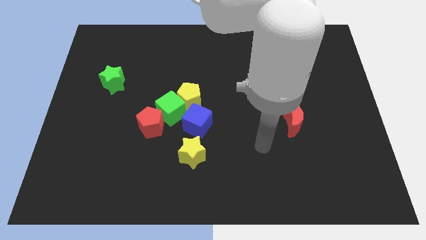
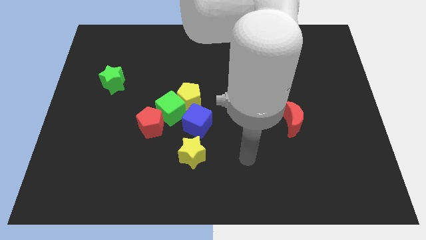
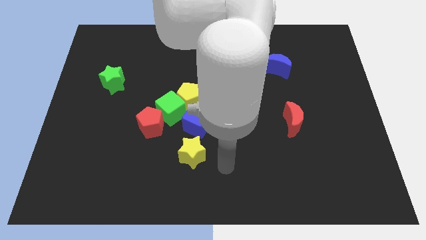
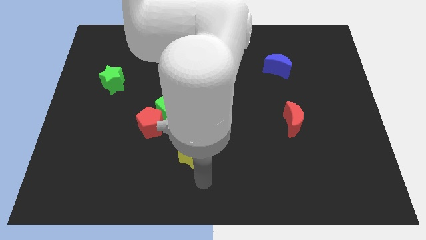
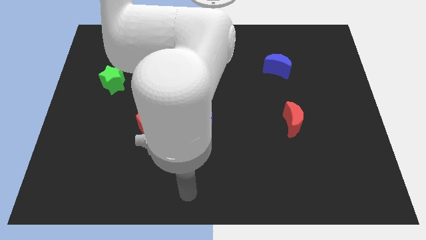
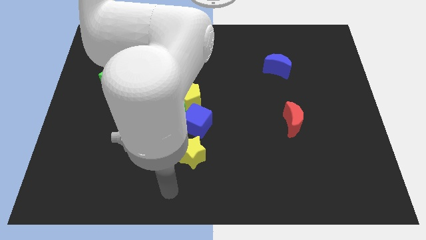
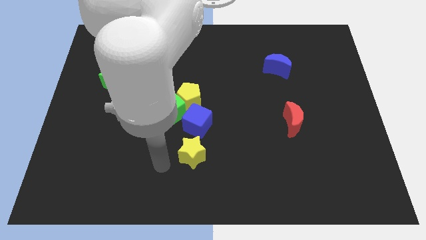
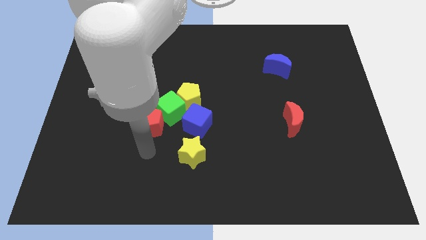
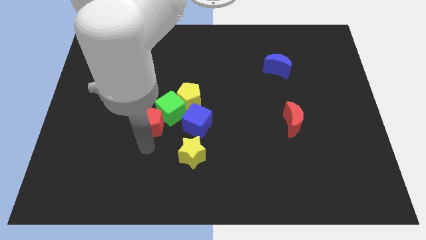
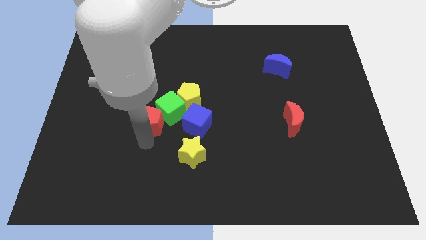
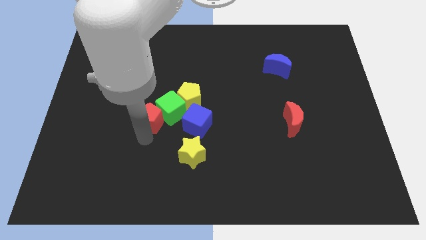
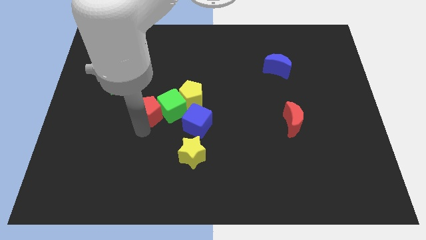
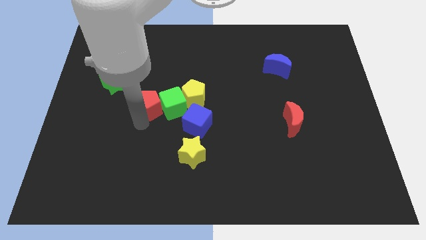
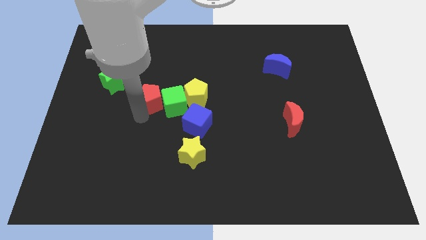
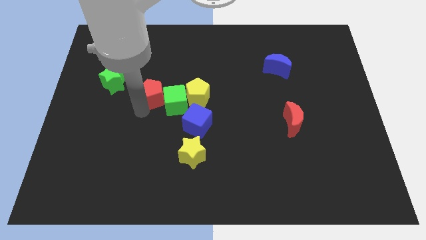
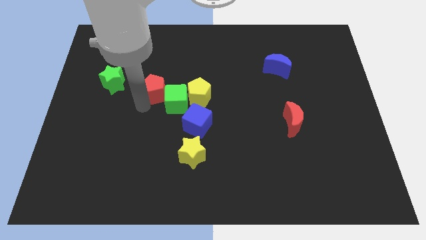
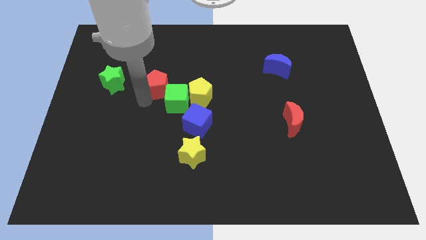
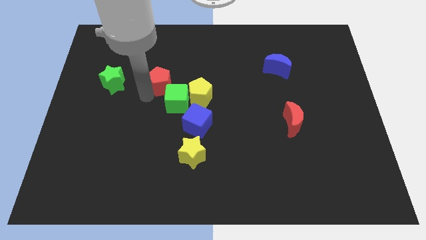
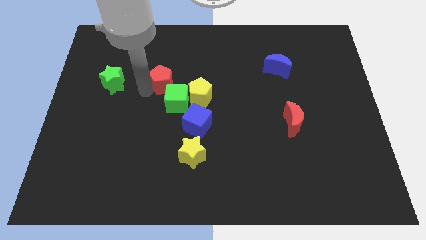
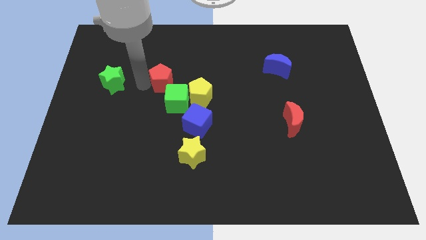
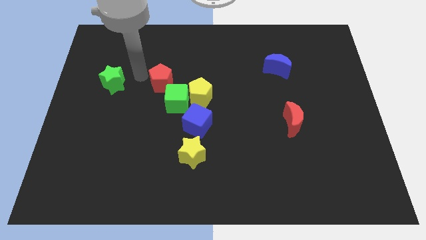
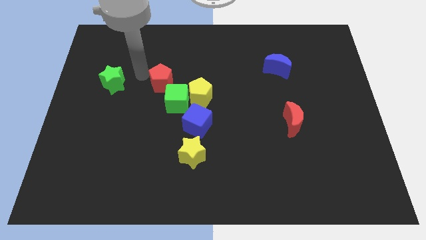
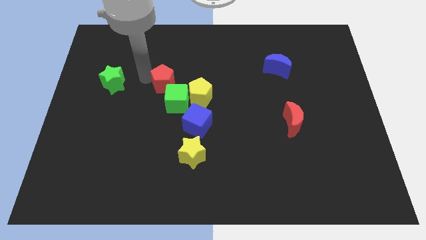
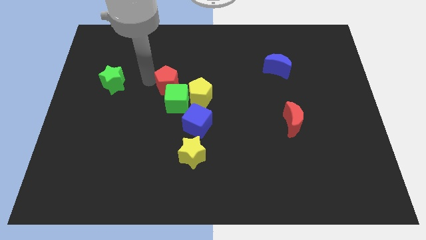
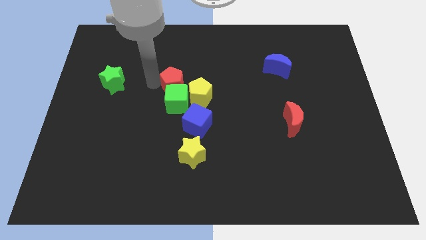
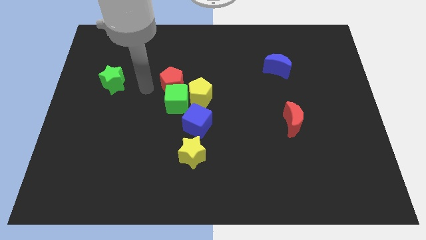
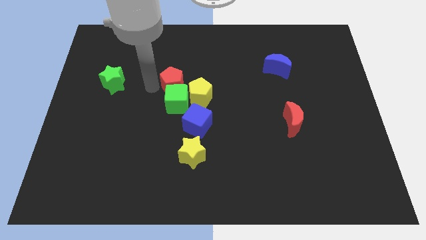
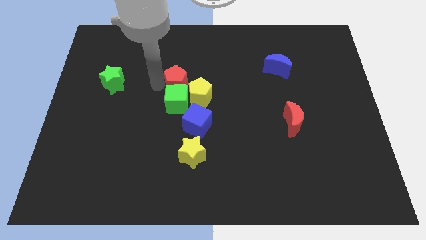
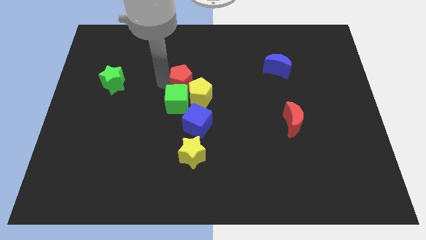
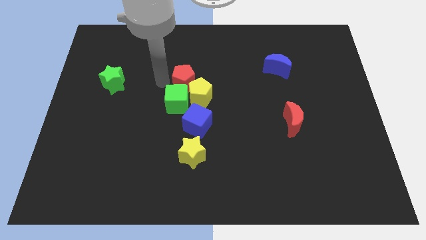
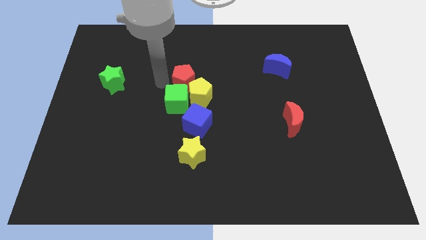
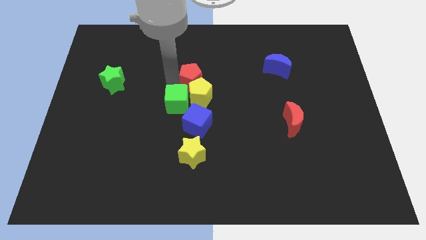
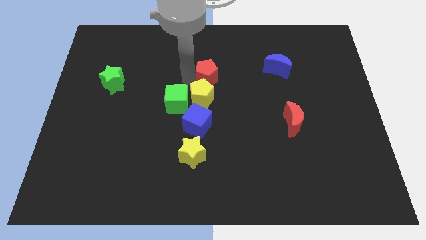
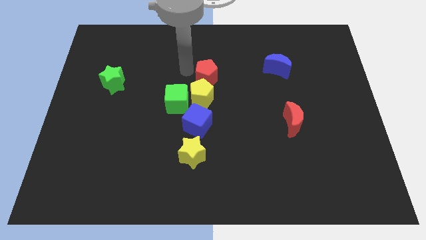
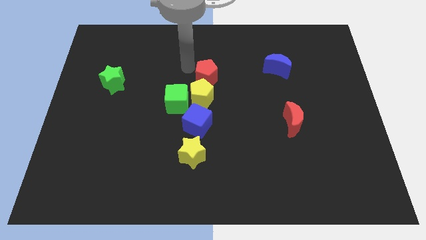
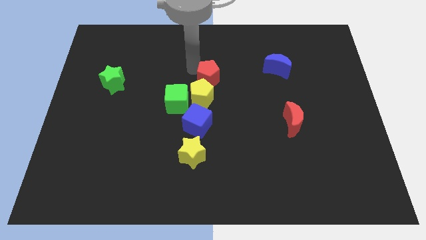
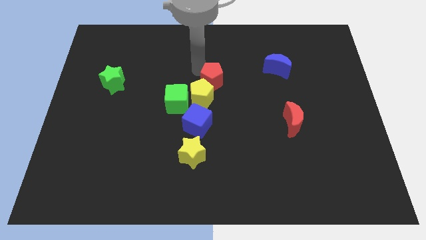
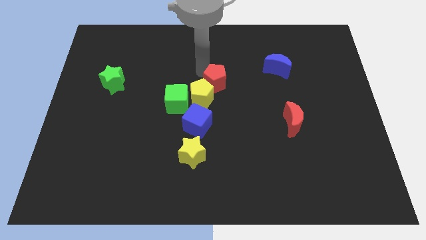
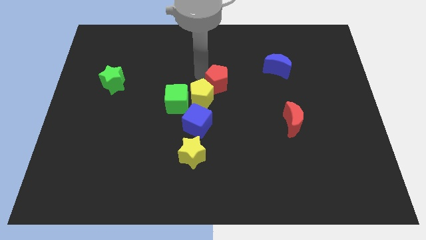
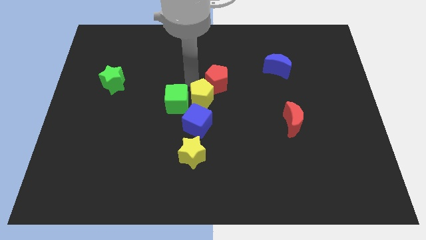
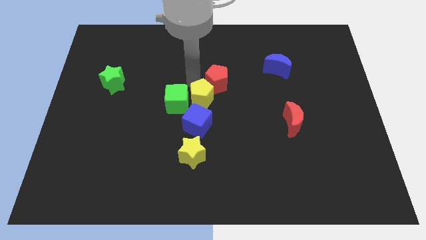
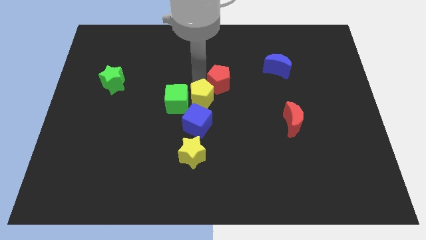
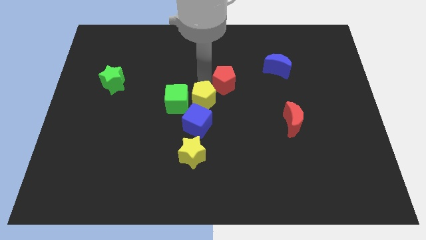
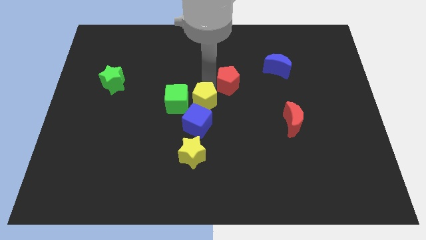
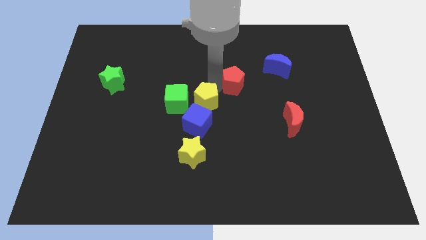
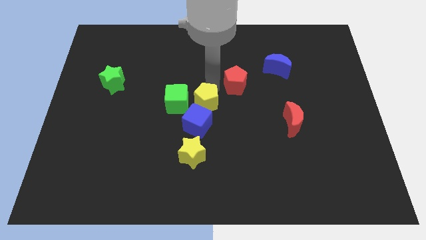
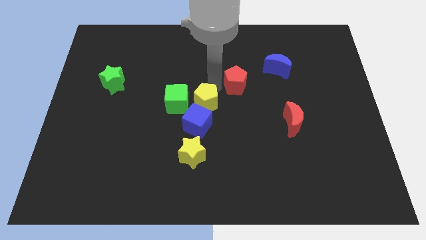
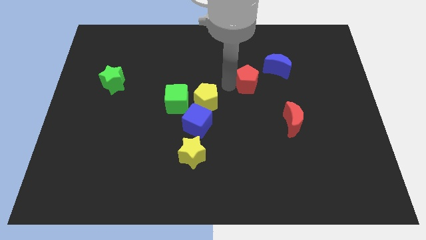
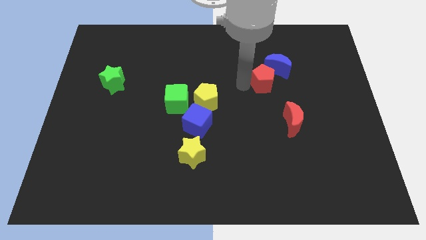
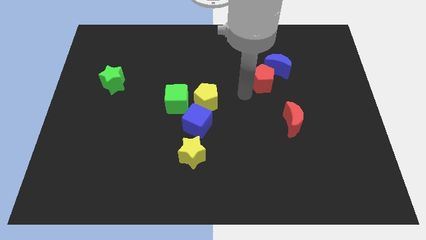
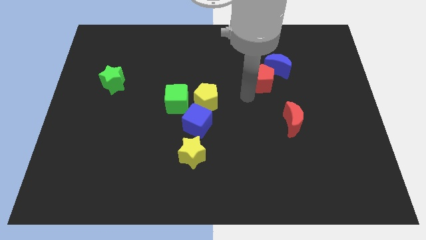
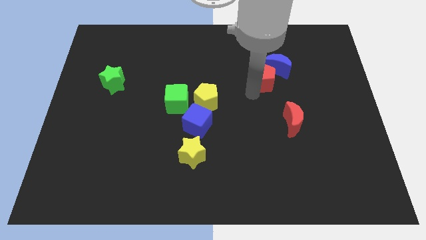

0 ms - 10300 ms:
slide the red pentagon next to the blue moon

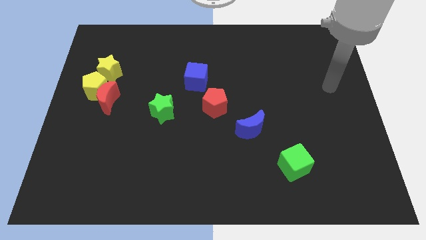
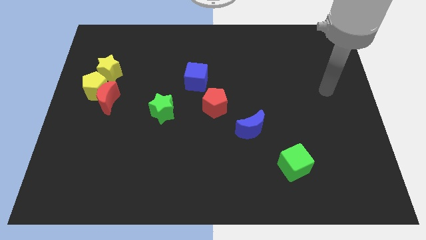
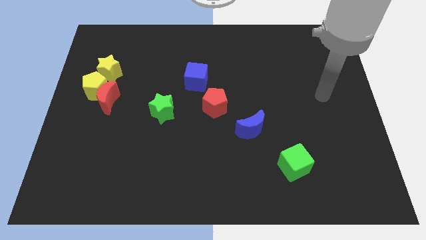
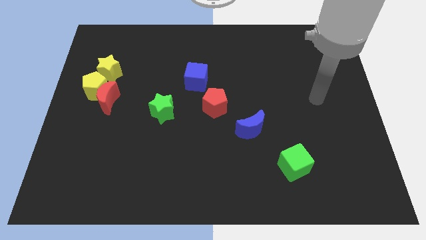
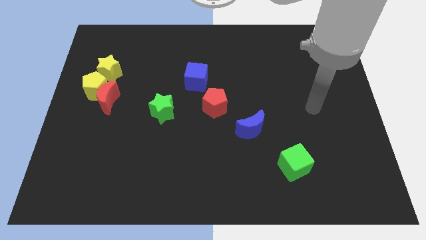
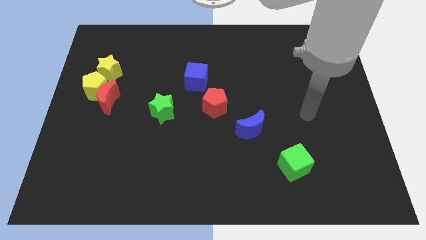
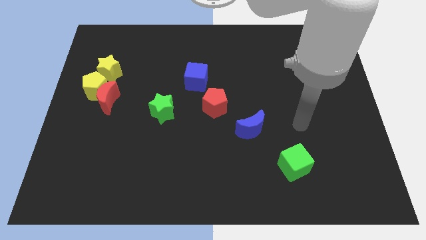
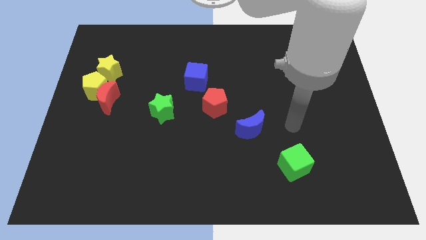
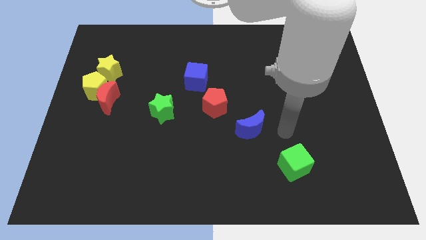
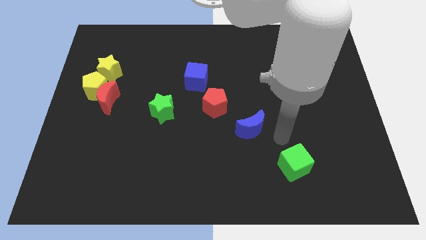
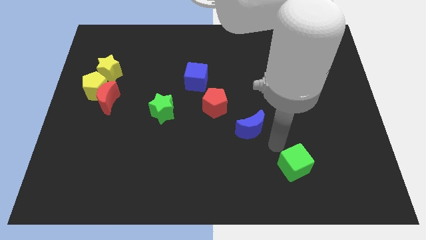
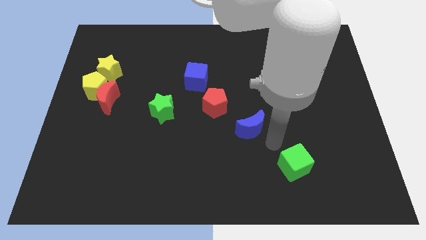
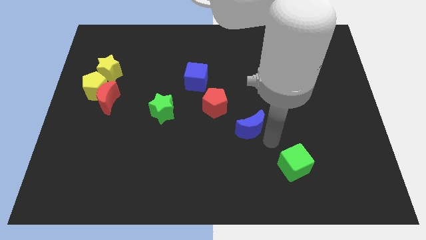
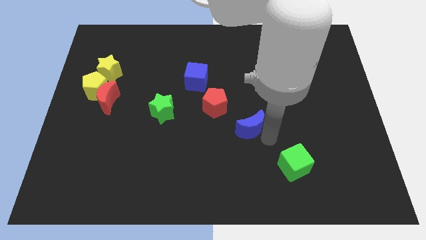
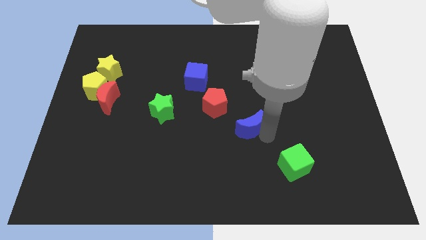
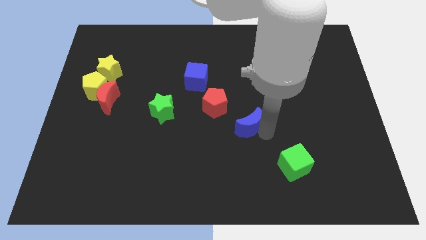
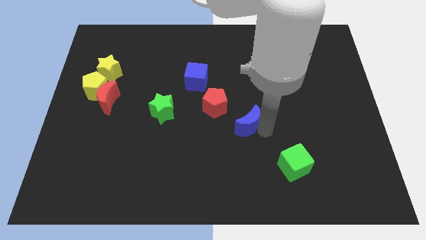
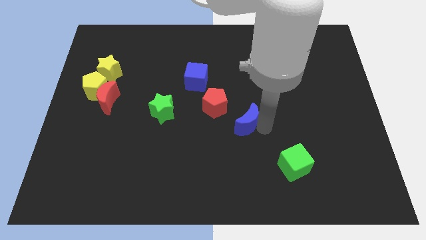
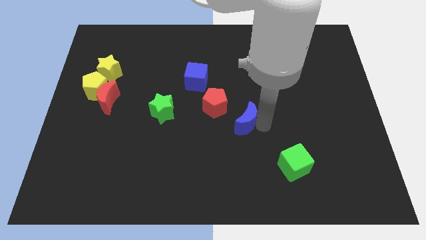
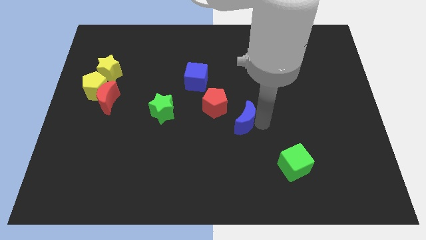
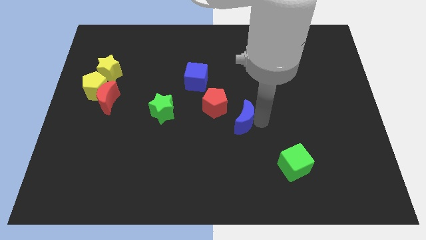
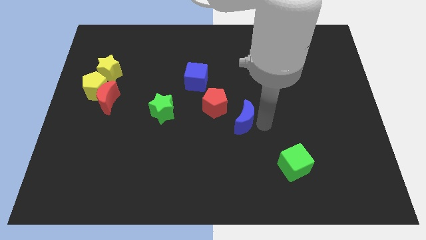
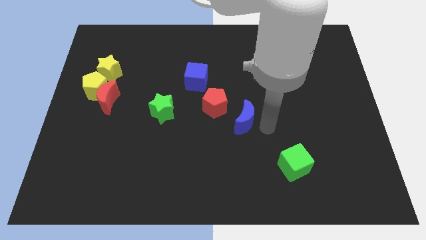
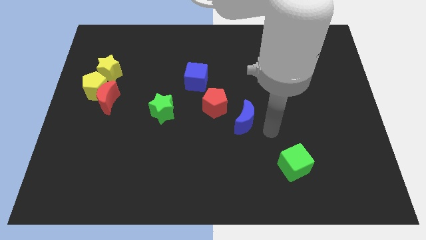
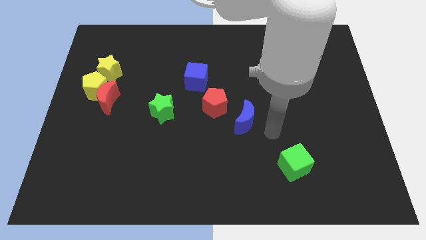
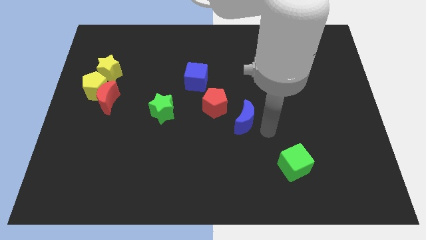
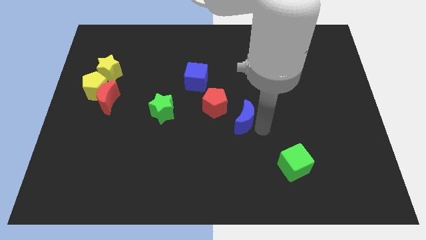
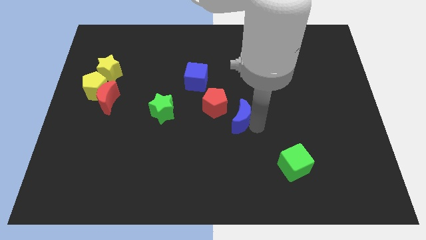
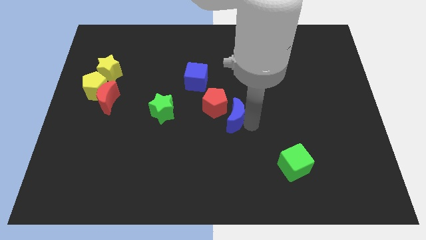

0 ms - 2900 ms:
put the blue moon towards the red pentagon
